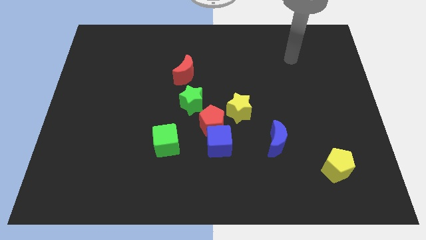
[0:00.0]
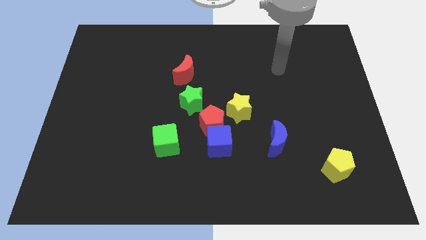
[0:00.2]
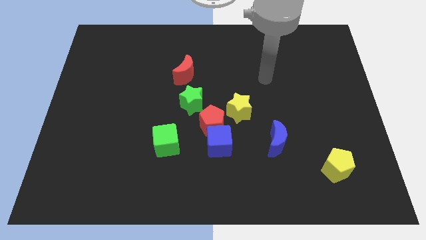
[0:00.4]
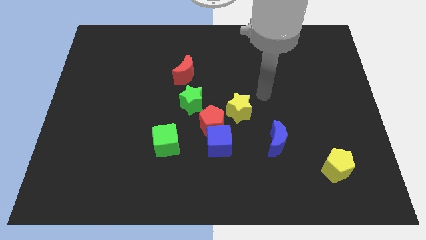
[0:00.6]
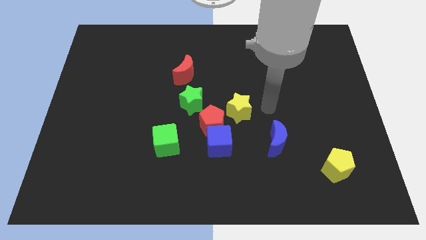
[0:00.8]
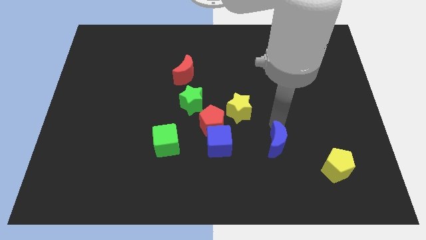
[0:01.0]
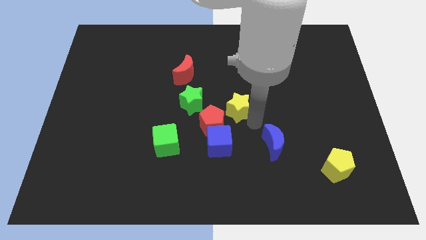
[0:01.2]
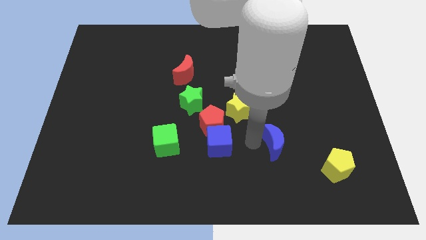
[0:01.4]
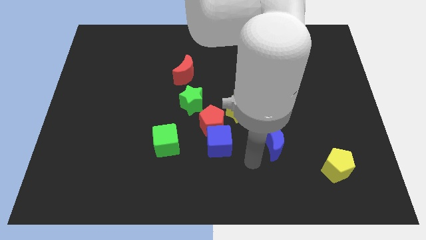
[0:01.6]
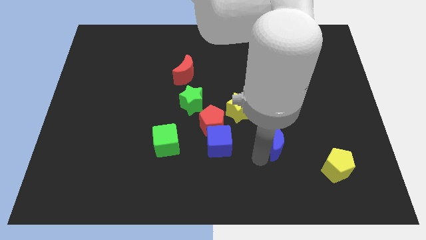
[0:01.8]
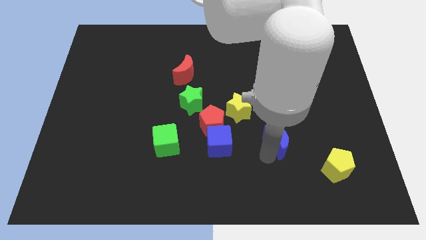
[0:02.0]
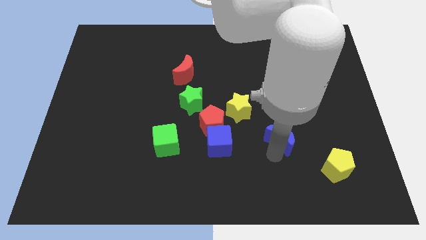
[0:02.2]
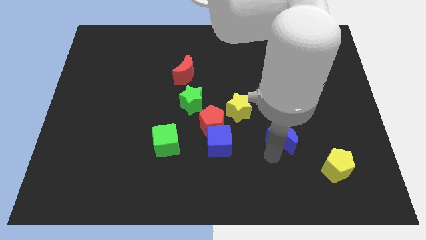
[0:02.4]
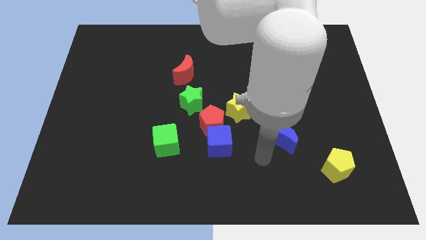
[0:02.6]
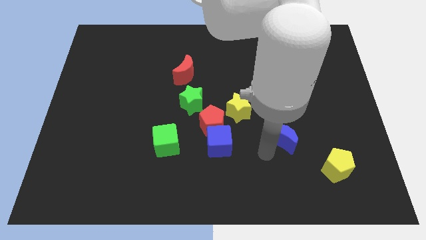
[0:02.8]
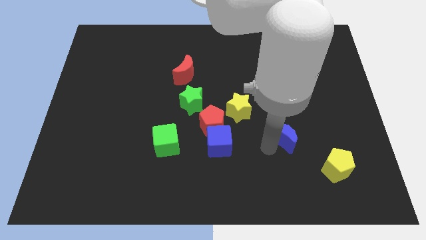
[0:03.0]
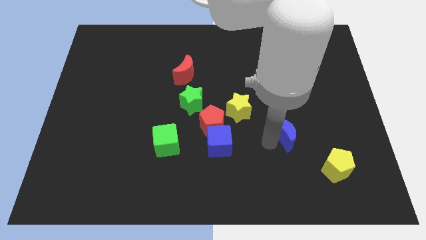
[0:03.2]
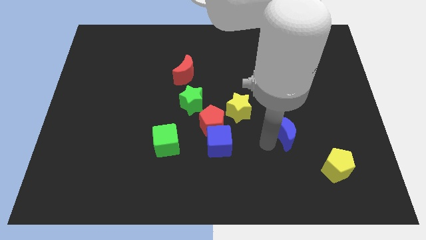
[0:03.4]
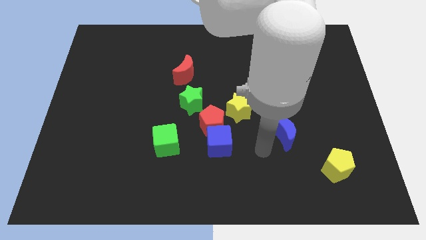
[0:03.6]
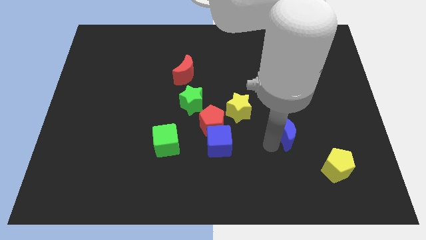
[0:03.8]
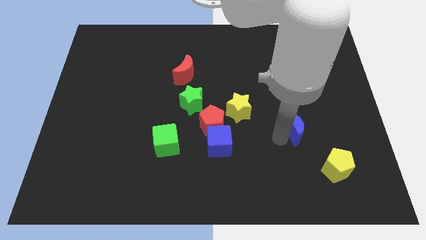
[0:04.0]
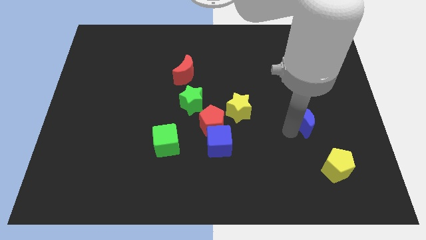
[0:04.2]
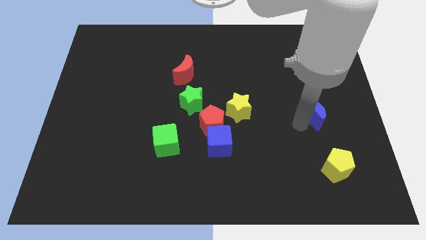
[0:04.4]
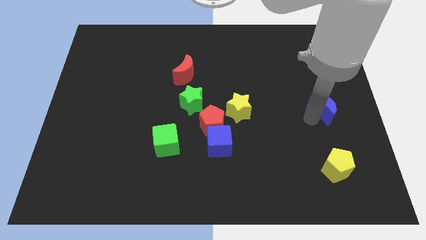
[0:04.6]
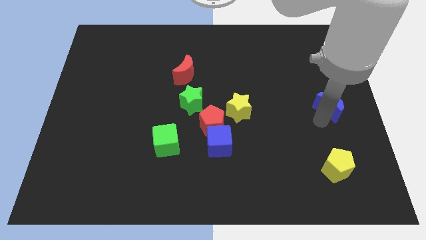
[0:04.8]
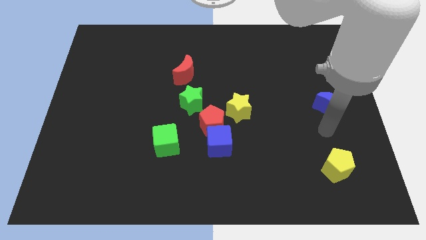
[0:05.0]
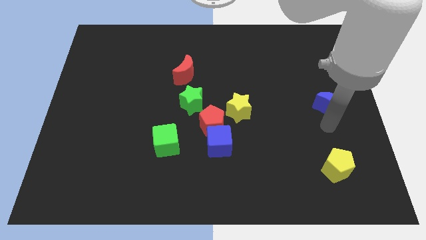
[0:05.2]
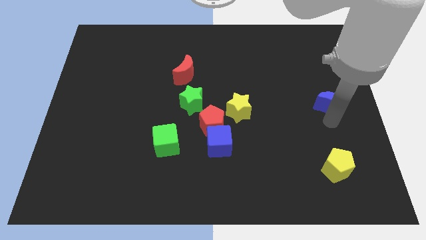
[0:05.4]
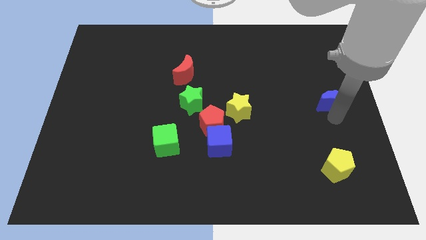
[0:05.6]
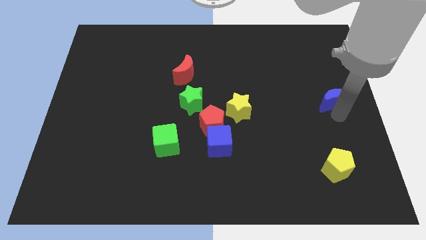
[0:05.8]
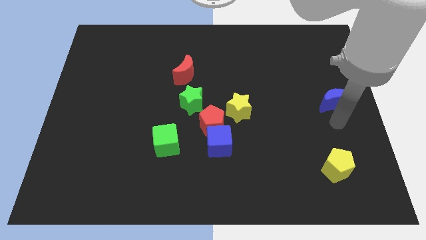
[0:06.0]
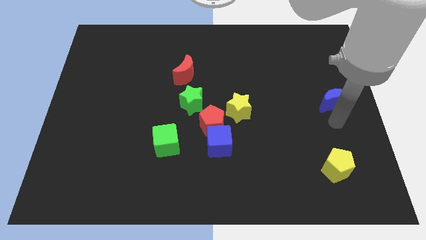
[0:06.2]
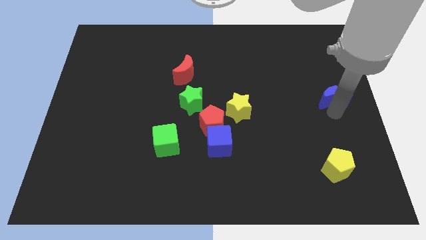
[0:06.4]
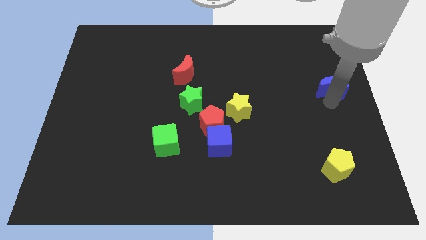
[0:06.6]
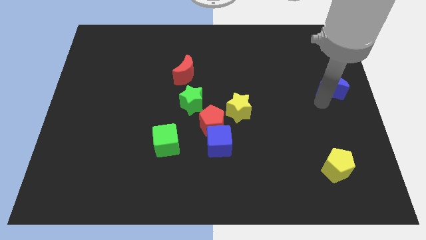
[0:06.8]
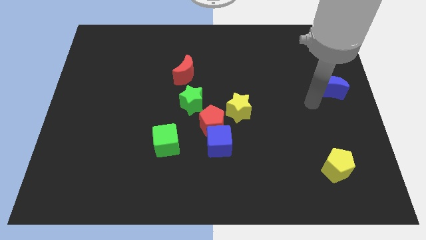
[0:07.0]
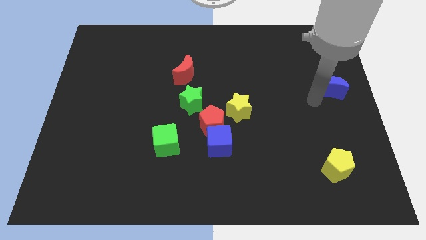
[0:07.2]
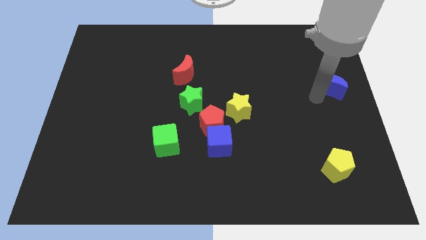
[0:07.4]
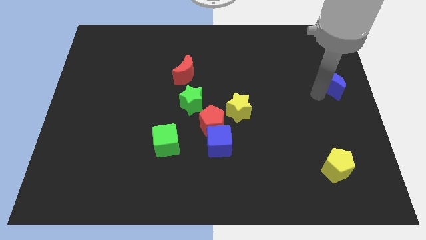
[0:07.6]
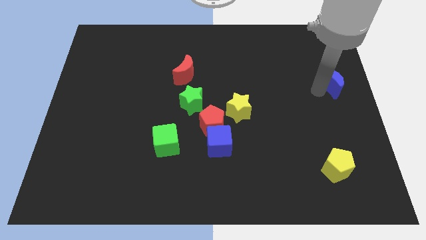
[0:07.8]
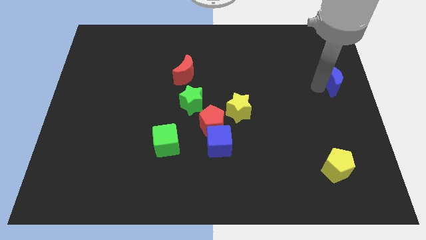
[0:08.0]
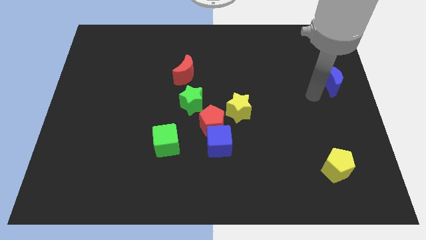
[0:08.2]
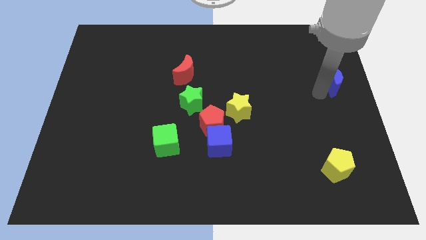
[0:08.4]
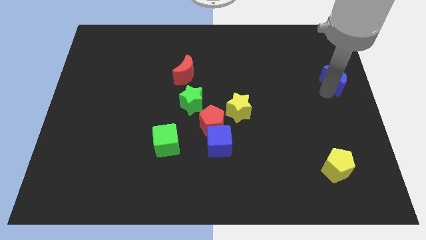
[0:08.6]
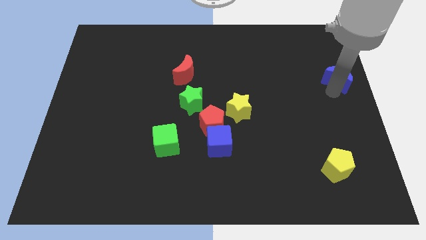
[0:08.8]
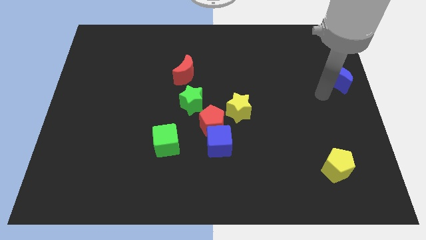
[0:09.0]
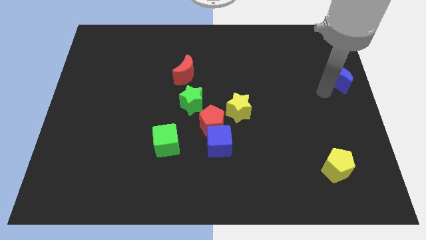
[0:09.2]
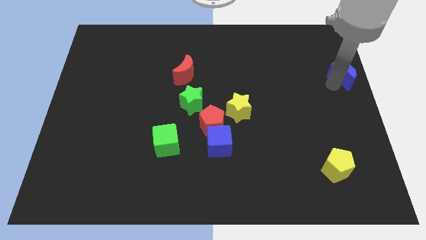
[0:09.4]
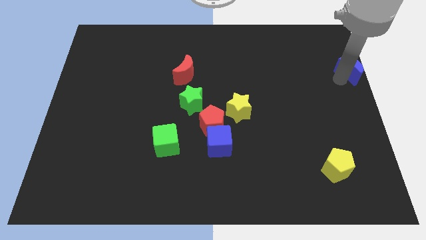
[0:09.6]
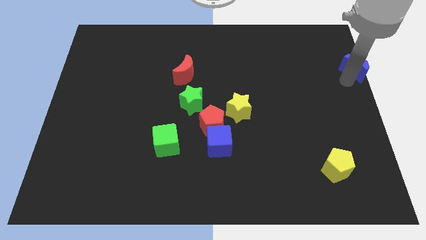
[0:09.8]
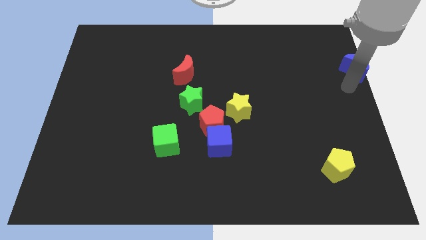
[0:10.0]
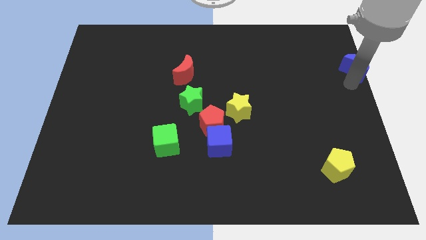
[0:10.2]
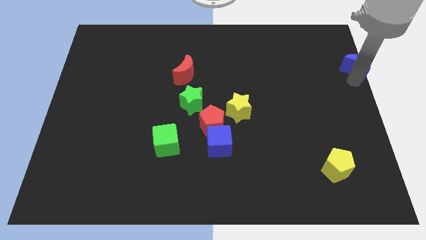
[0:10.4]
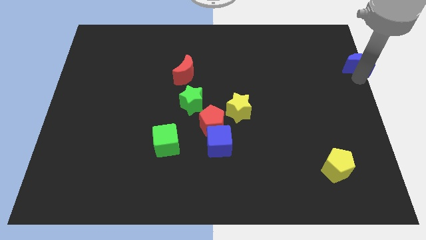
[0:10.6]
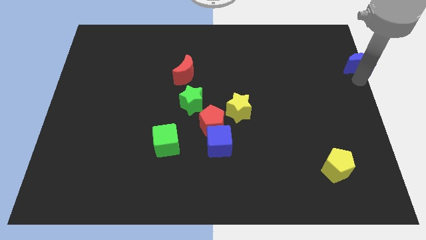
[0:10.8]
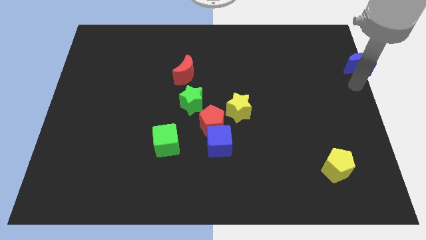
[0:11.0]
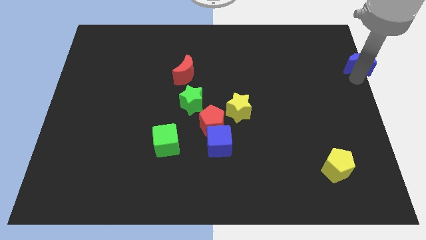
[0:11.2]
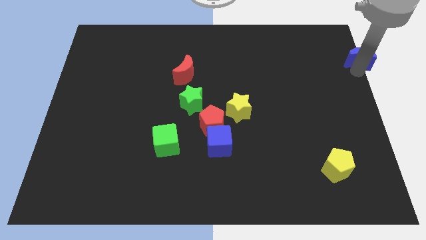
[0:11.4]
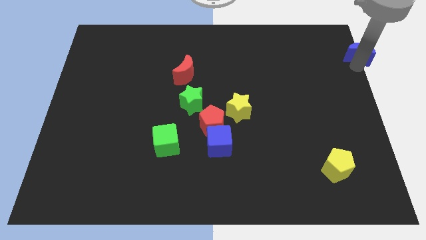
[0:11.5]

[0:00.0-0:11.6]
put the blue moon to the top right of the board

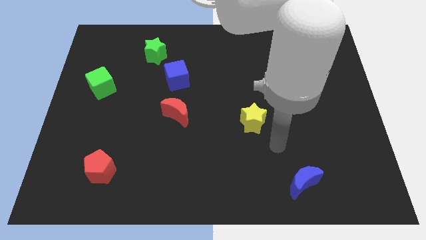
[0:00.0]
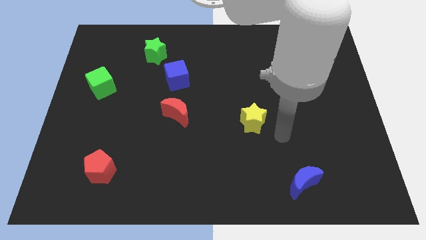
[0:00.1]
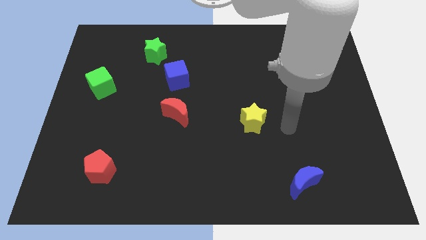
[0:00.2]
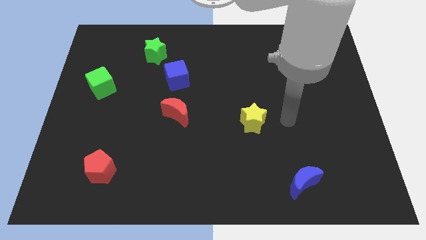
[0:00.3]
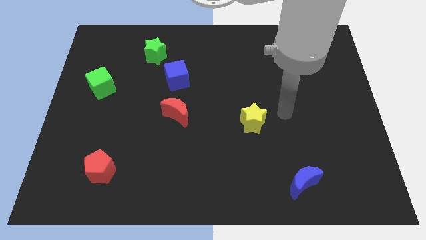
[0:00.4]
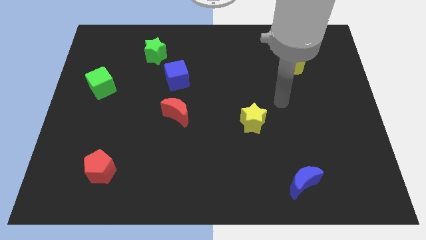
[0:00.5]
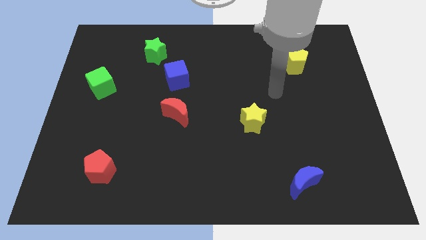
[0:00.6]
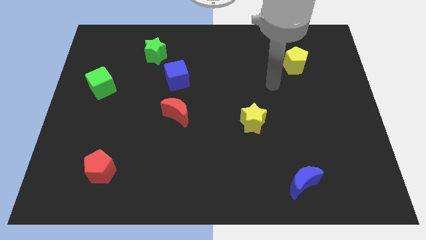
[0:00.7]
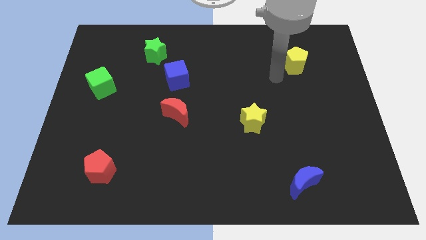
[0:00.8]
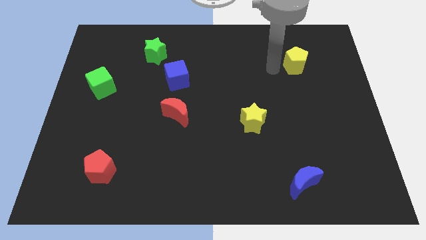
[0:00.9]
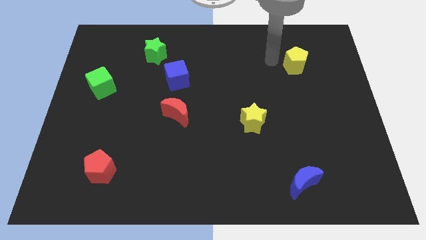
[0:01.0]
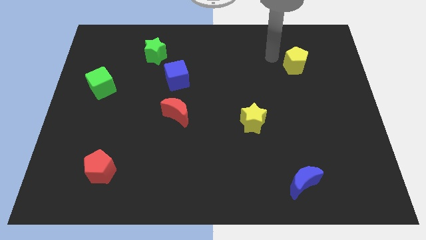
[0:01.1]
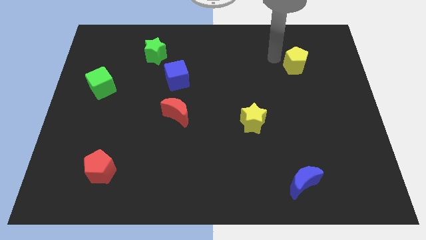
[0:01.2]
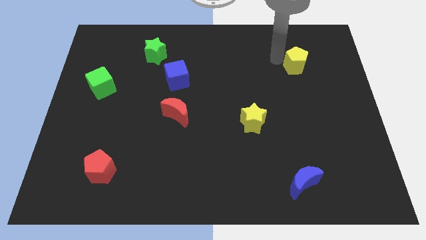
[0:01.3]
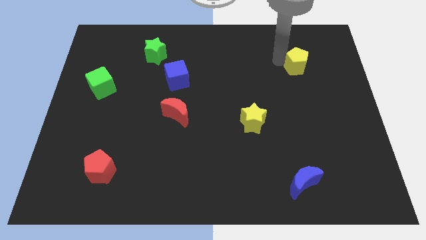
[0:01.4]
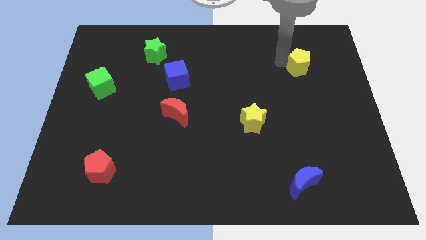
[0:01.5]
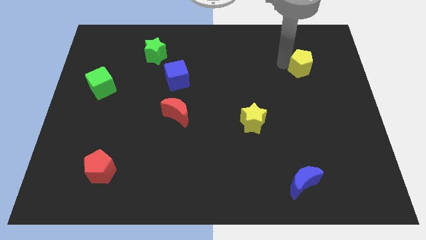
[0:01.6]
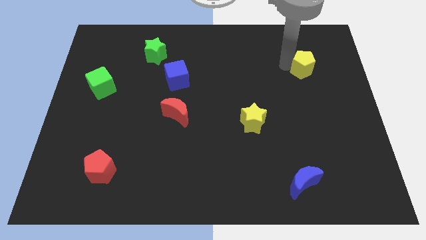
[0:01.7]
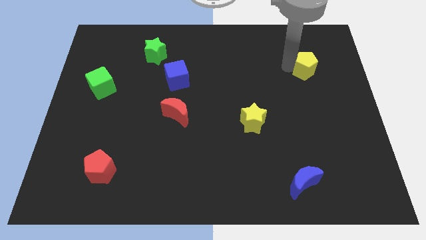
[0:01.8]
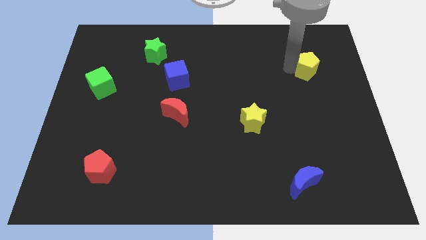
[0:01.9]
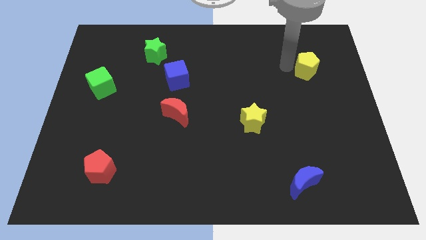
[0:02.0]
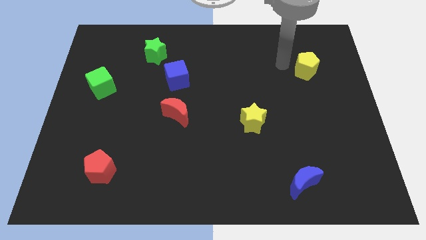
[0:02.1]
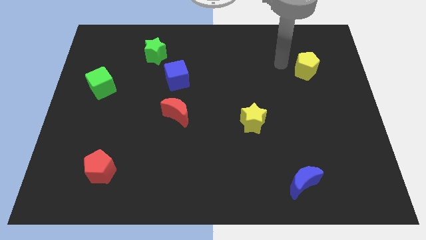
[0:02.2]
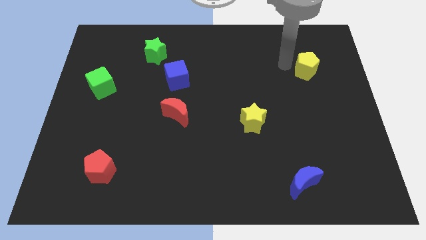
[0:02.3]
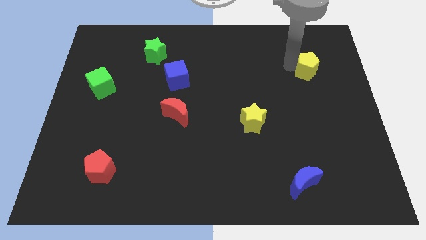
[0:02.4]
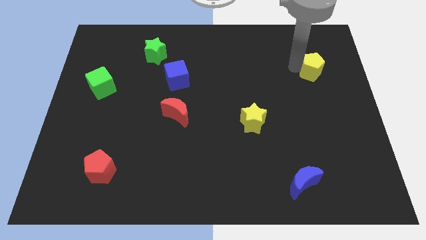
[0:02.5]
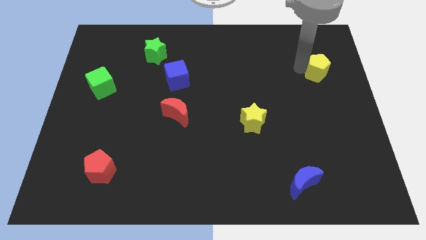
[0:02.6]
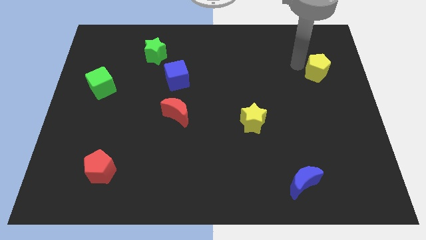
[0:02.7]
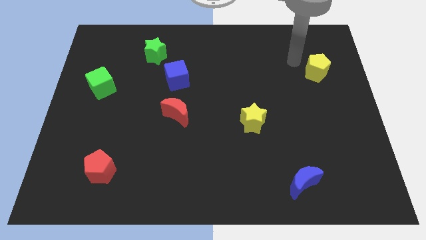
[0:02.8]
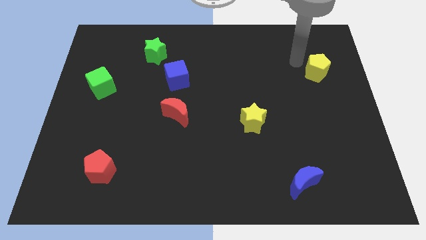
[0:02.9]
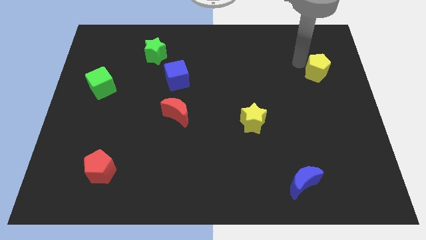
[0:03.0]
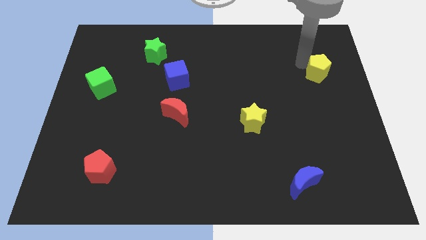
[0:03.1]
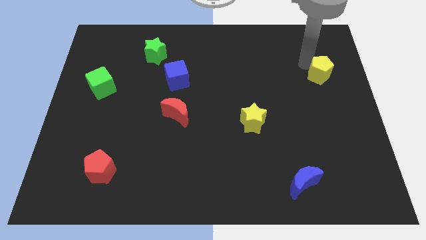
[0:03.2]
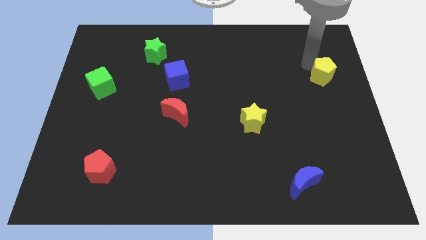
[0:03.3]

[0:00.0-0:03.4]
slide the yellow pentagon to the center right
